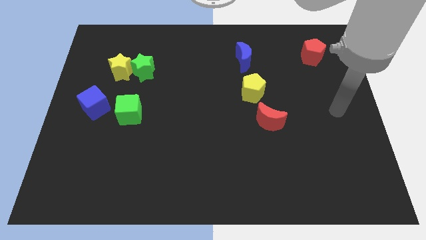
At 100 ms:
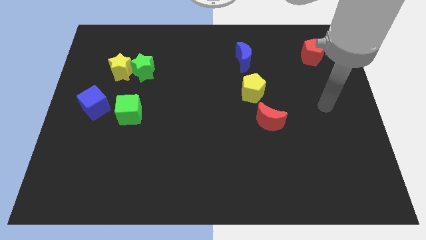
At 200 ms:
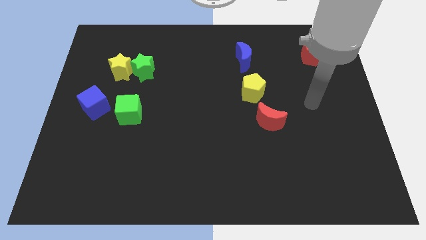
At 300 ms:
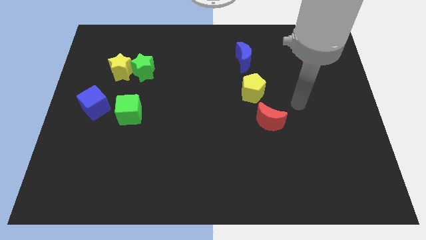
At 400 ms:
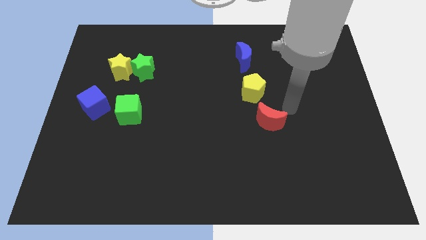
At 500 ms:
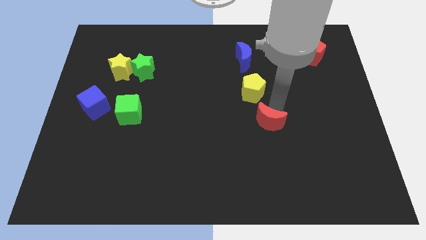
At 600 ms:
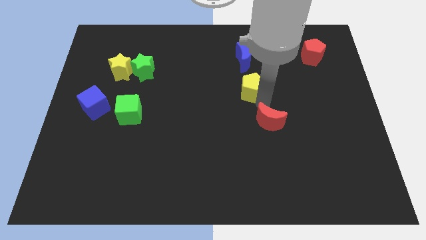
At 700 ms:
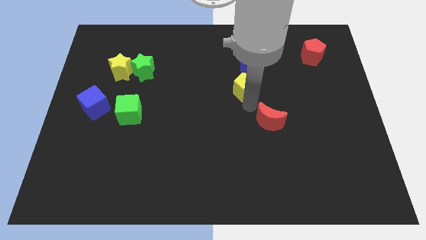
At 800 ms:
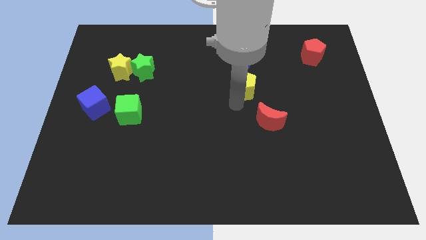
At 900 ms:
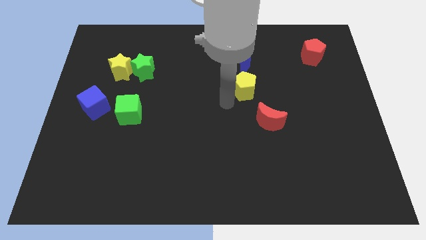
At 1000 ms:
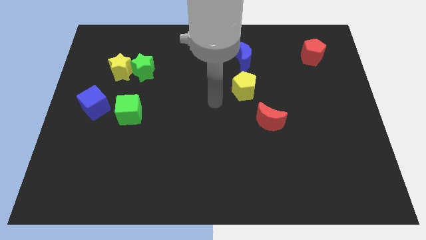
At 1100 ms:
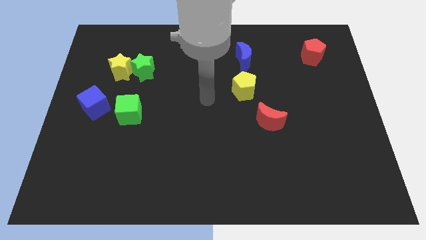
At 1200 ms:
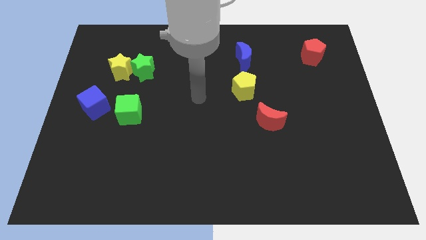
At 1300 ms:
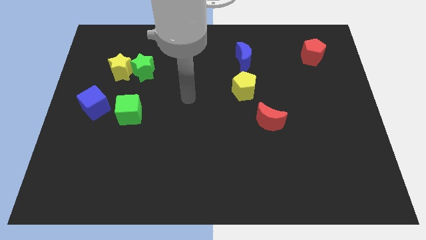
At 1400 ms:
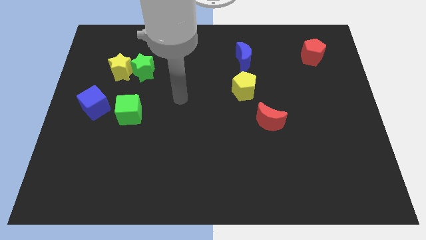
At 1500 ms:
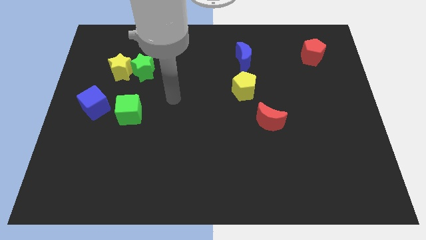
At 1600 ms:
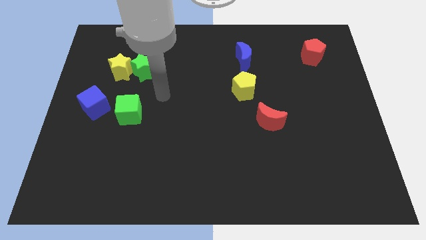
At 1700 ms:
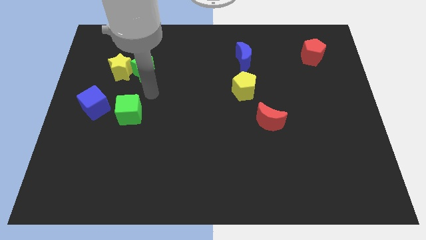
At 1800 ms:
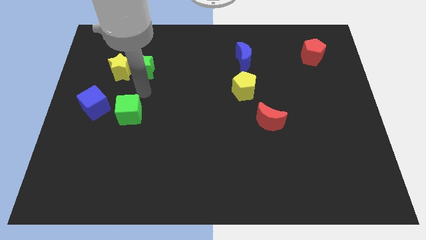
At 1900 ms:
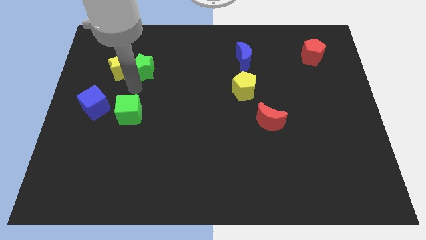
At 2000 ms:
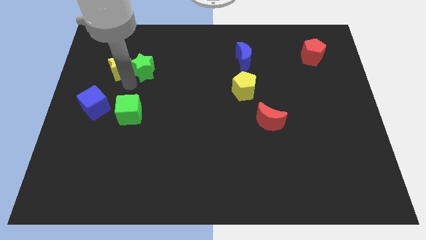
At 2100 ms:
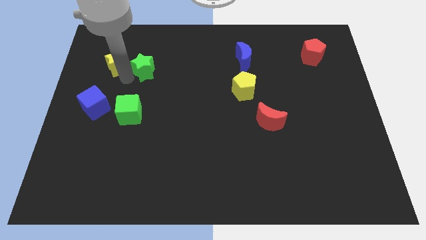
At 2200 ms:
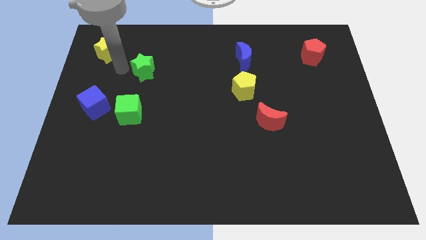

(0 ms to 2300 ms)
separate the green star from the yellow star

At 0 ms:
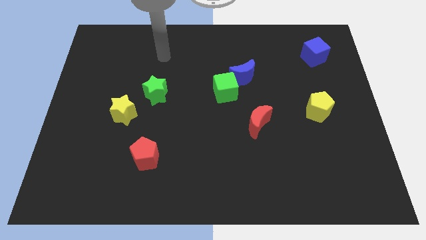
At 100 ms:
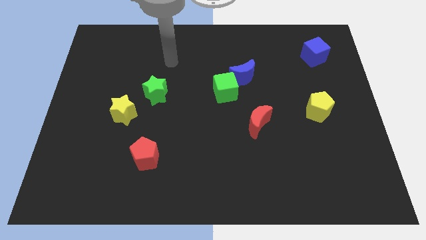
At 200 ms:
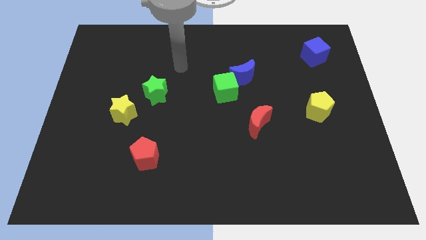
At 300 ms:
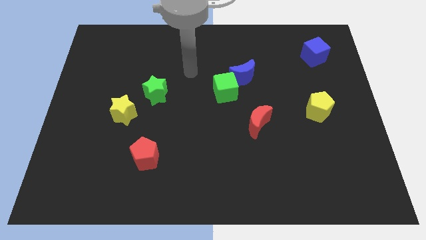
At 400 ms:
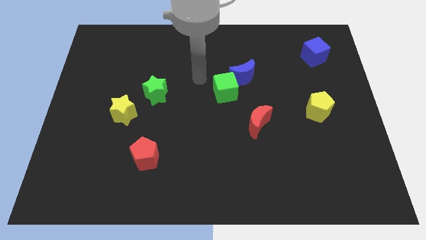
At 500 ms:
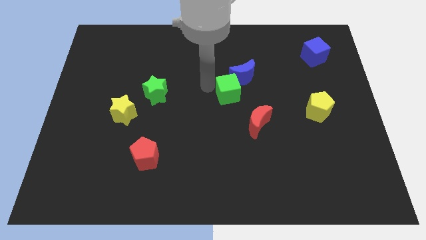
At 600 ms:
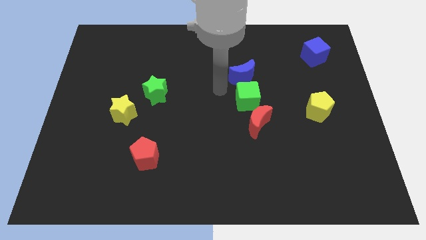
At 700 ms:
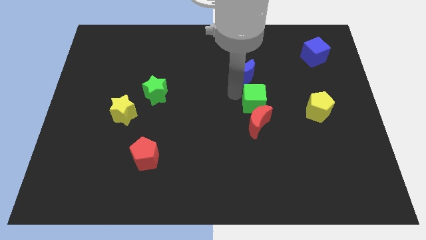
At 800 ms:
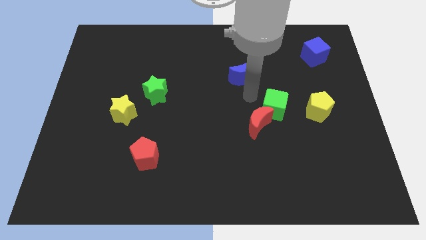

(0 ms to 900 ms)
move the blue moon away from the green cube

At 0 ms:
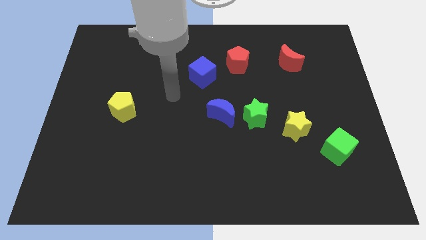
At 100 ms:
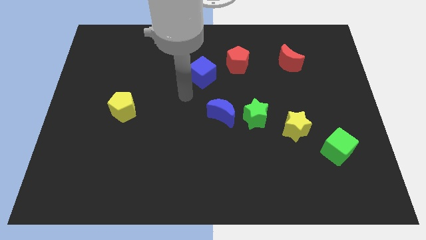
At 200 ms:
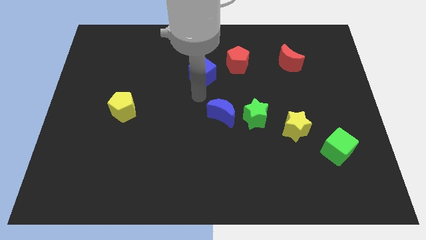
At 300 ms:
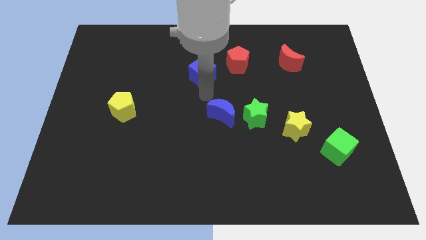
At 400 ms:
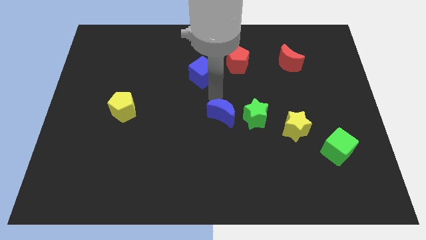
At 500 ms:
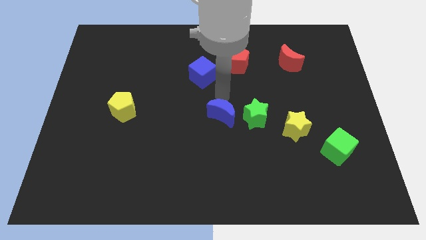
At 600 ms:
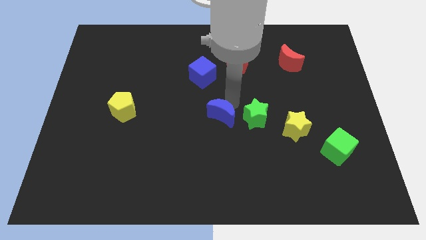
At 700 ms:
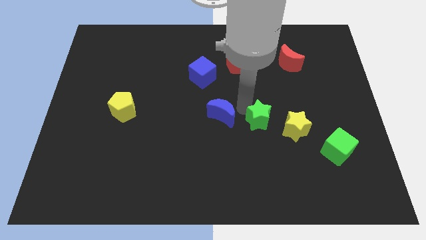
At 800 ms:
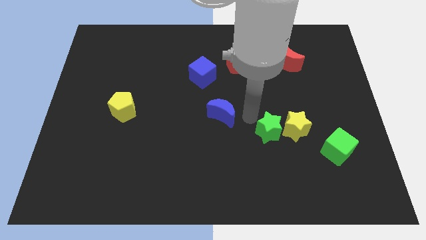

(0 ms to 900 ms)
separate the blue moon from the green star

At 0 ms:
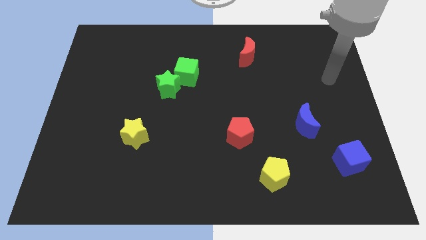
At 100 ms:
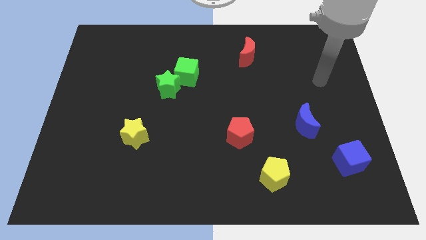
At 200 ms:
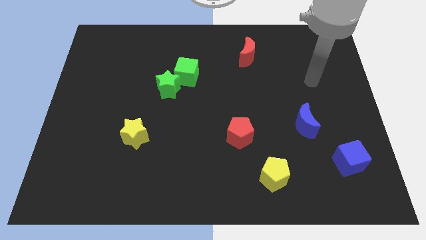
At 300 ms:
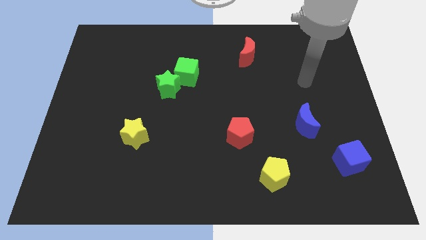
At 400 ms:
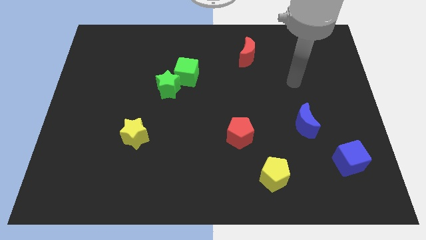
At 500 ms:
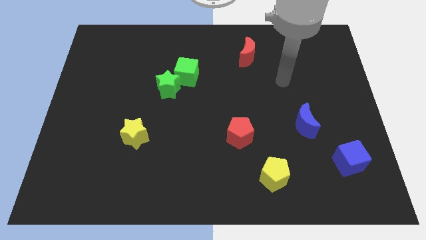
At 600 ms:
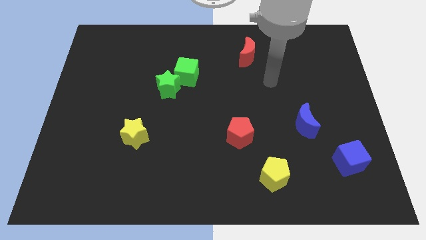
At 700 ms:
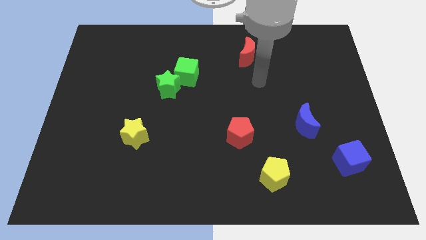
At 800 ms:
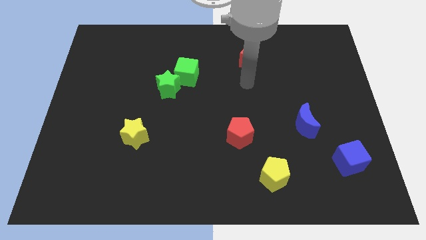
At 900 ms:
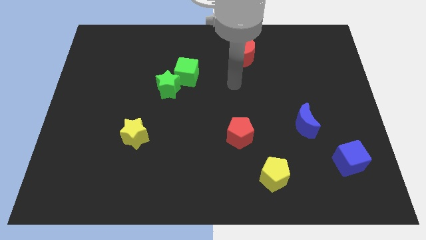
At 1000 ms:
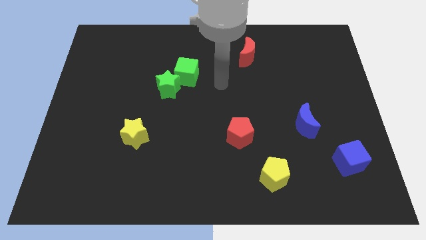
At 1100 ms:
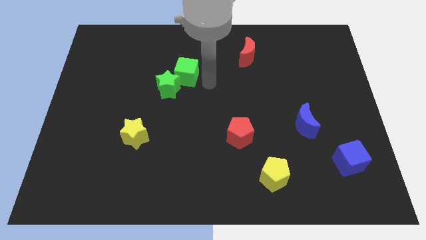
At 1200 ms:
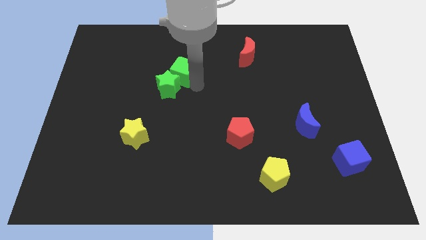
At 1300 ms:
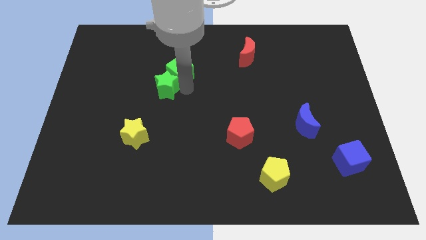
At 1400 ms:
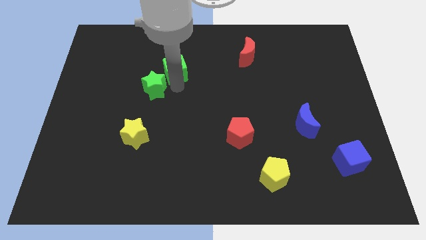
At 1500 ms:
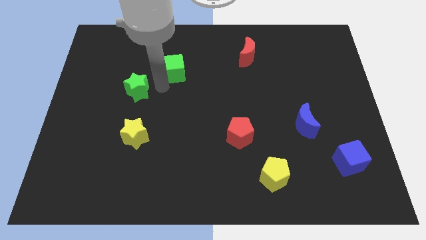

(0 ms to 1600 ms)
separate the green cube from the green star

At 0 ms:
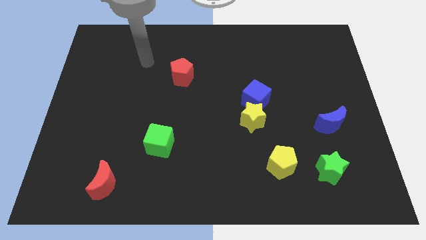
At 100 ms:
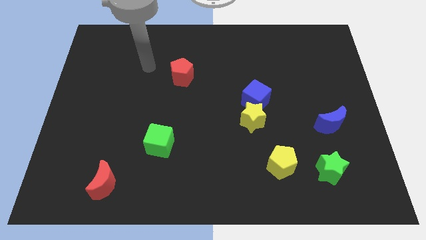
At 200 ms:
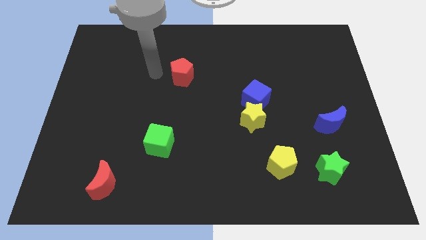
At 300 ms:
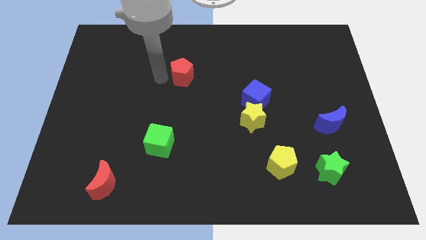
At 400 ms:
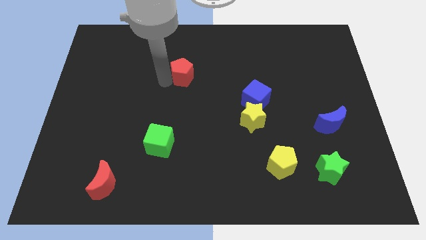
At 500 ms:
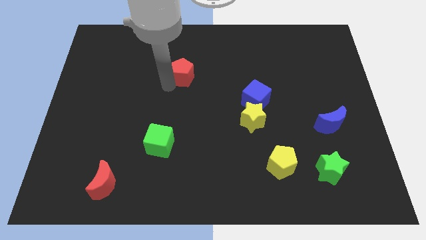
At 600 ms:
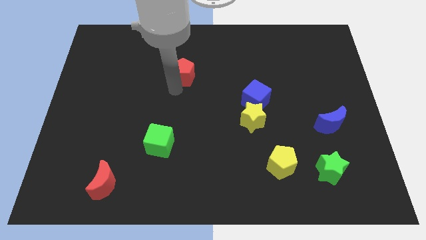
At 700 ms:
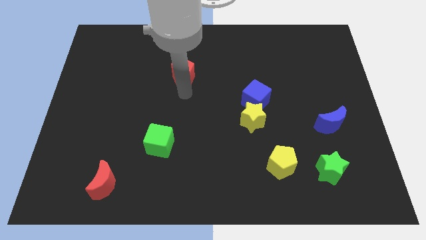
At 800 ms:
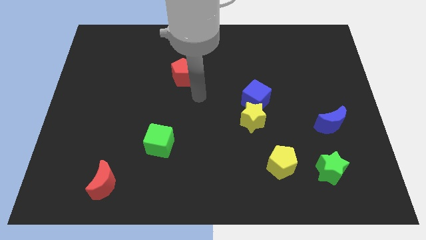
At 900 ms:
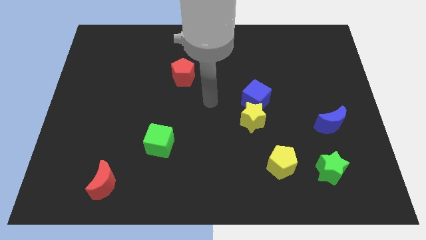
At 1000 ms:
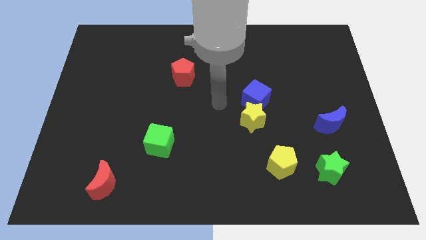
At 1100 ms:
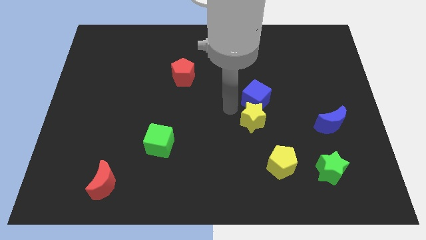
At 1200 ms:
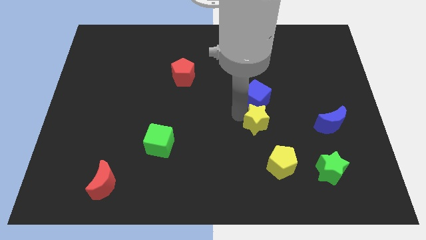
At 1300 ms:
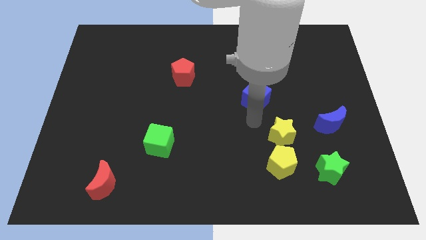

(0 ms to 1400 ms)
pull the blue cube apart from the yellow star

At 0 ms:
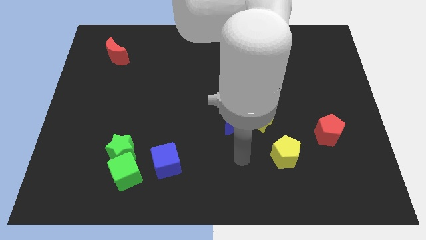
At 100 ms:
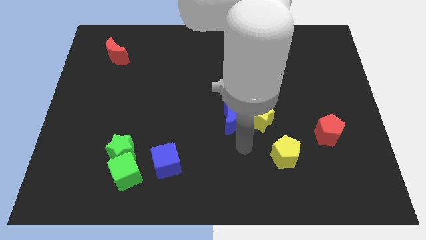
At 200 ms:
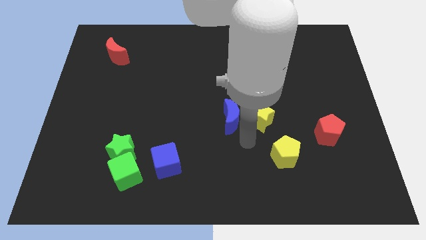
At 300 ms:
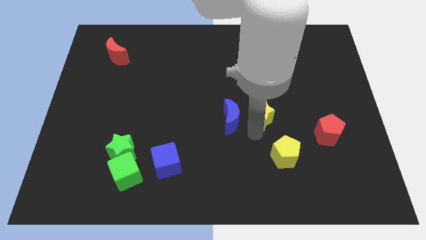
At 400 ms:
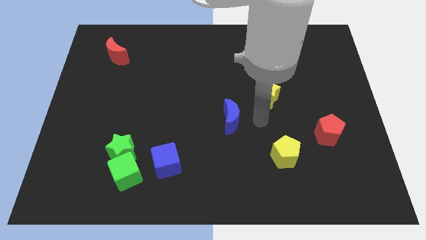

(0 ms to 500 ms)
move the blue moon away from the yellow star

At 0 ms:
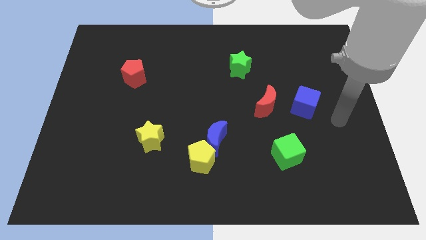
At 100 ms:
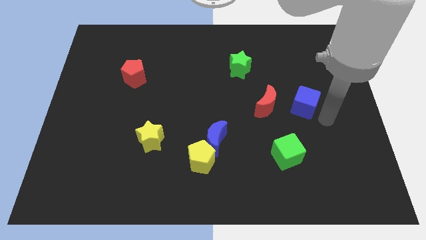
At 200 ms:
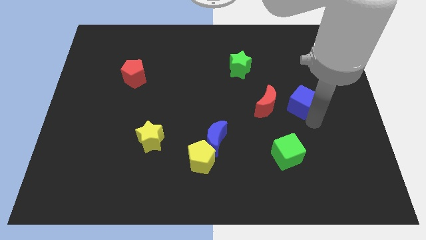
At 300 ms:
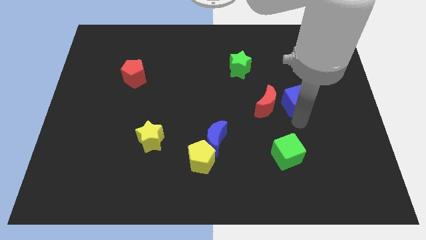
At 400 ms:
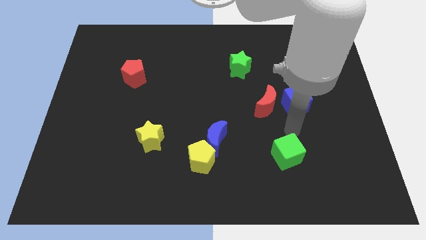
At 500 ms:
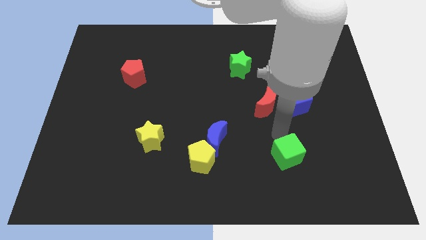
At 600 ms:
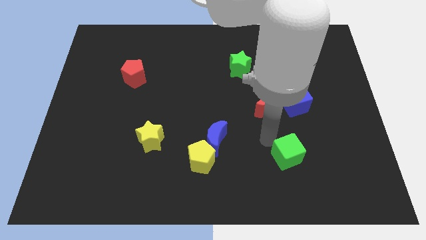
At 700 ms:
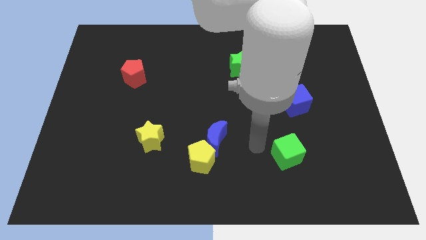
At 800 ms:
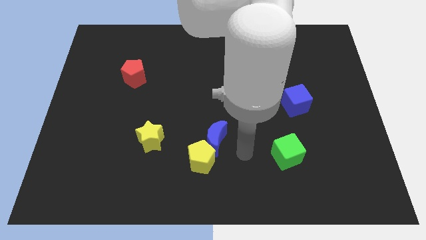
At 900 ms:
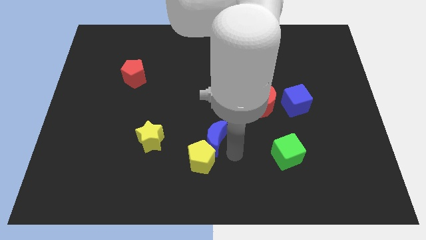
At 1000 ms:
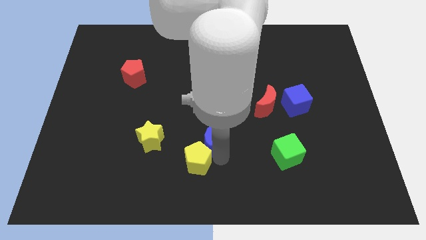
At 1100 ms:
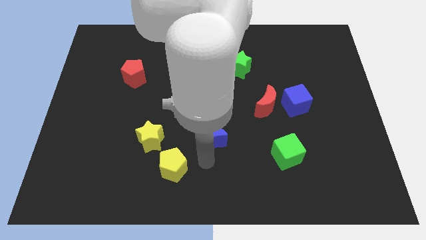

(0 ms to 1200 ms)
separate the blue moon from the yellow pentagon

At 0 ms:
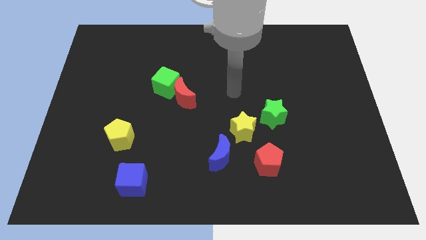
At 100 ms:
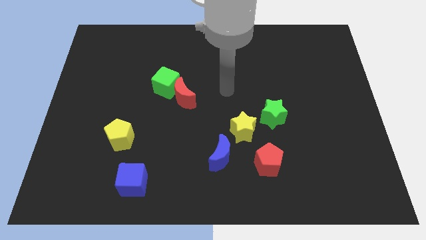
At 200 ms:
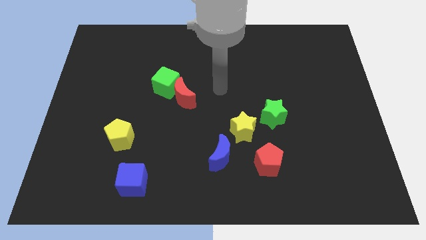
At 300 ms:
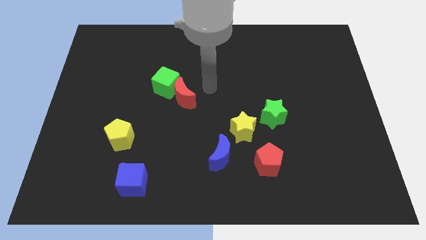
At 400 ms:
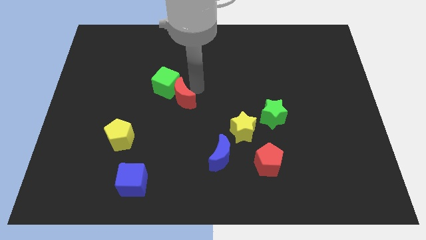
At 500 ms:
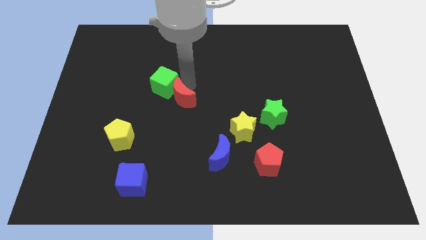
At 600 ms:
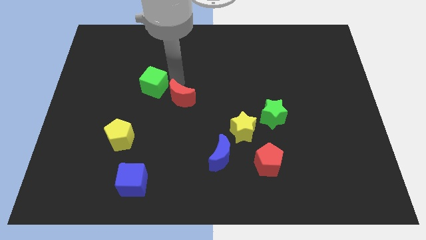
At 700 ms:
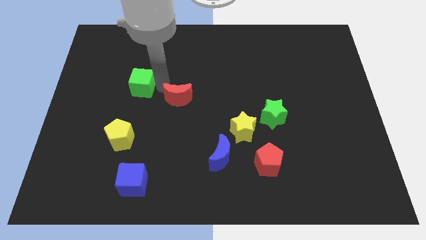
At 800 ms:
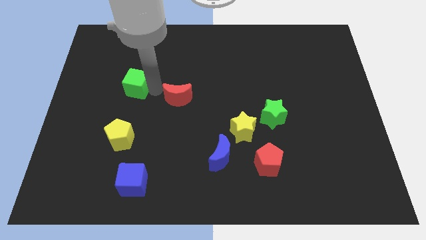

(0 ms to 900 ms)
move the red moon away from the green cube
